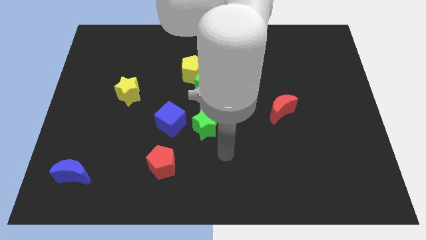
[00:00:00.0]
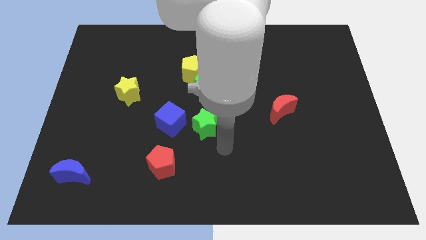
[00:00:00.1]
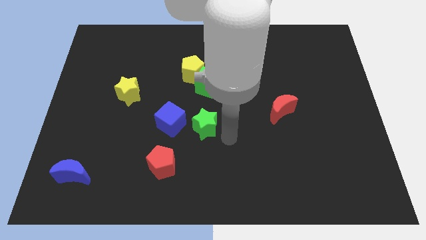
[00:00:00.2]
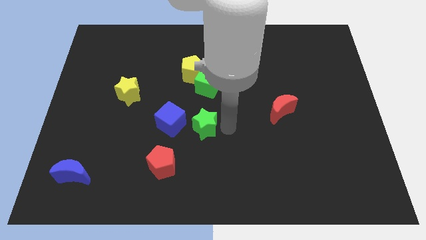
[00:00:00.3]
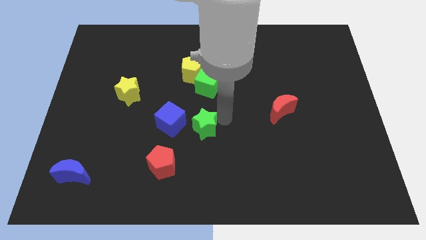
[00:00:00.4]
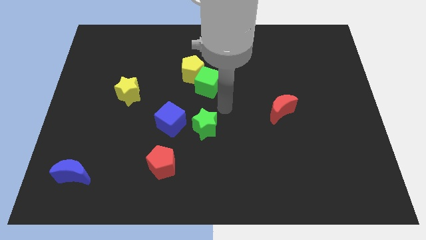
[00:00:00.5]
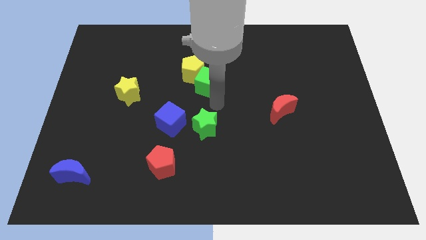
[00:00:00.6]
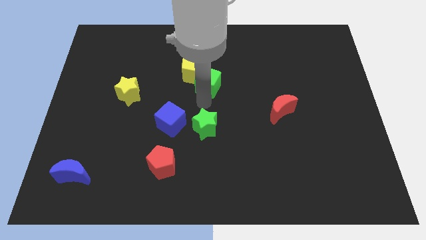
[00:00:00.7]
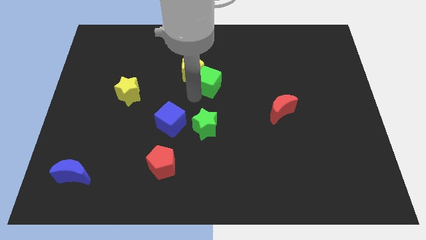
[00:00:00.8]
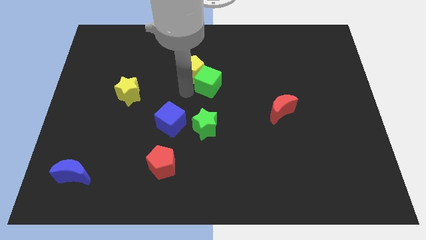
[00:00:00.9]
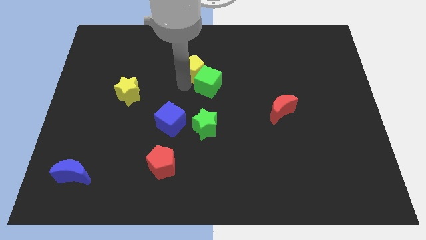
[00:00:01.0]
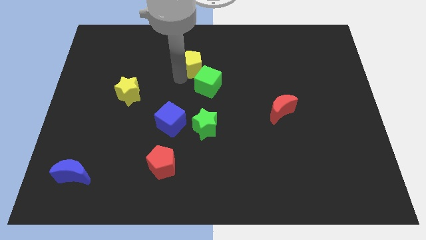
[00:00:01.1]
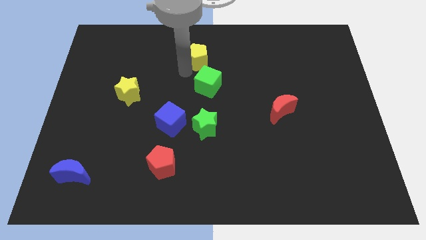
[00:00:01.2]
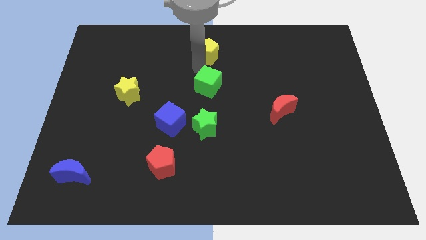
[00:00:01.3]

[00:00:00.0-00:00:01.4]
separate the green cube from the yellow pentagon

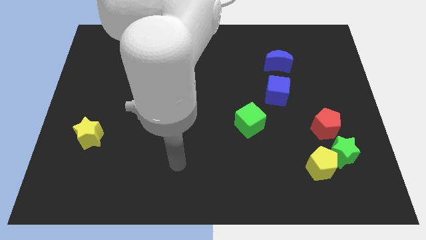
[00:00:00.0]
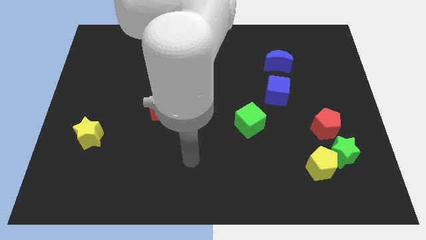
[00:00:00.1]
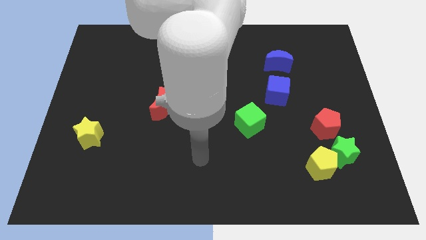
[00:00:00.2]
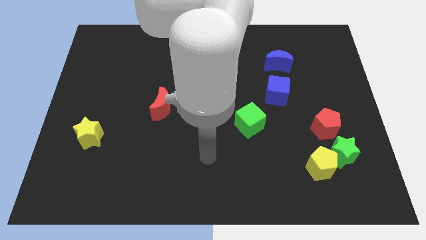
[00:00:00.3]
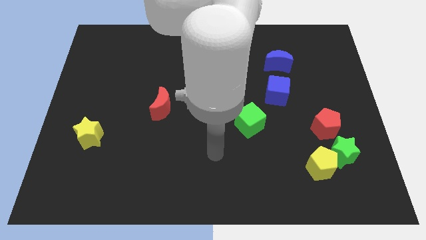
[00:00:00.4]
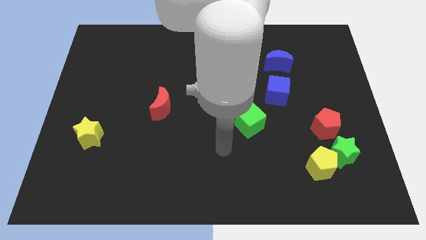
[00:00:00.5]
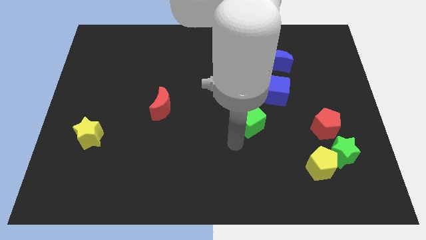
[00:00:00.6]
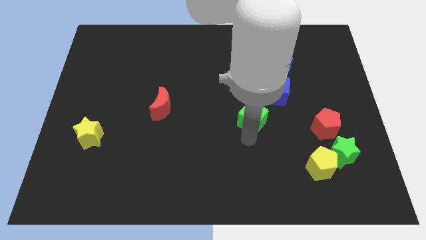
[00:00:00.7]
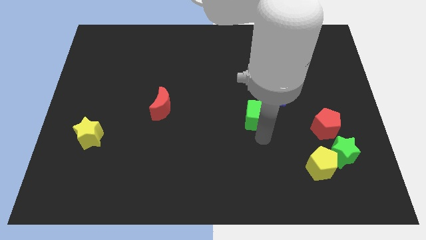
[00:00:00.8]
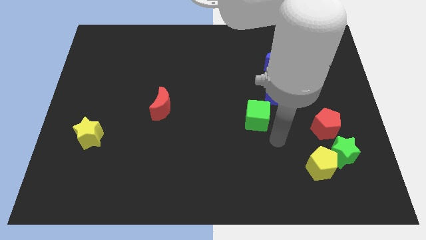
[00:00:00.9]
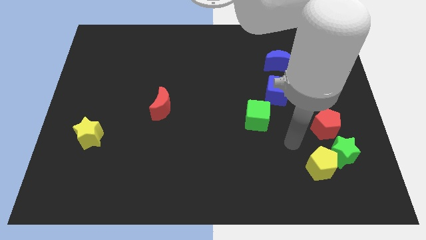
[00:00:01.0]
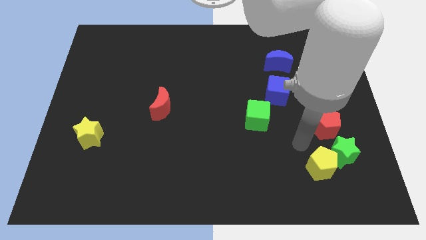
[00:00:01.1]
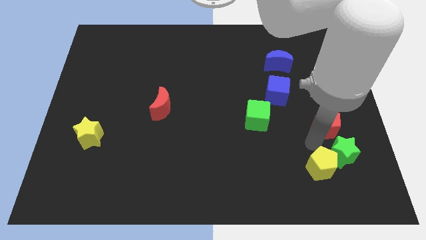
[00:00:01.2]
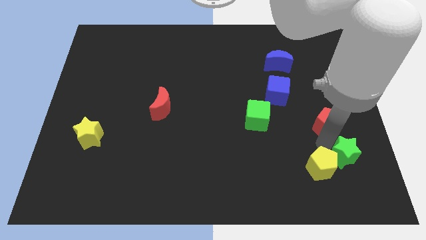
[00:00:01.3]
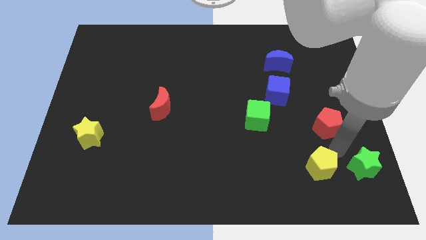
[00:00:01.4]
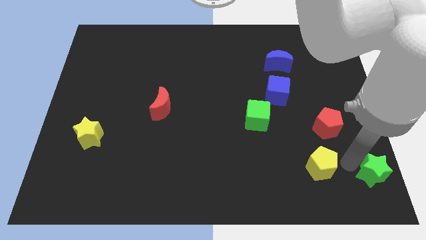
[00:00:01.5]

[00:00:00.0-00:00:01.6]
move the yellow pentagon away from the green star

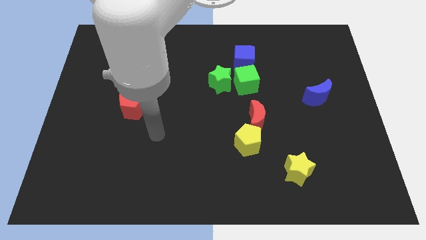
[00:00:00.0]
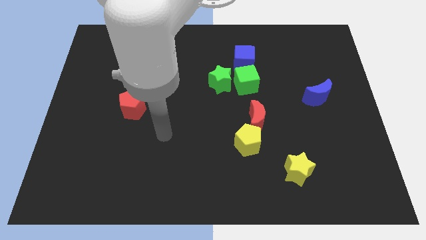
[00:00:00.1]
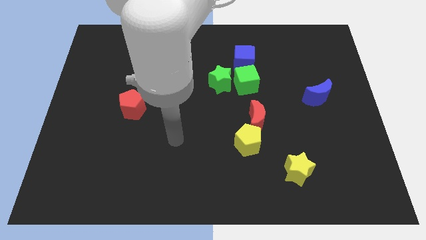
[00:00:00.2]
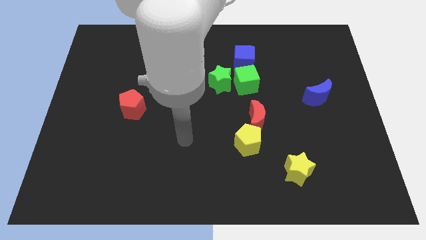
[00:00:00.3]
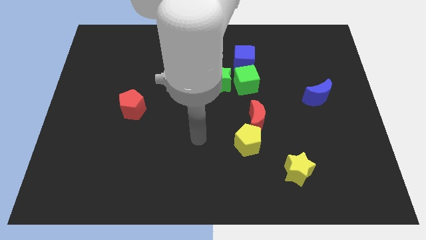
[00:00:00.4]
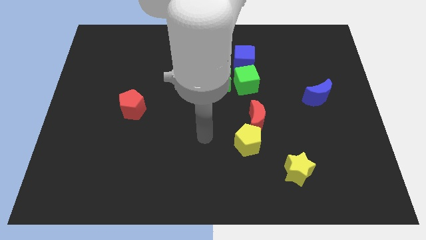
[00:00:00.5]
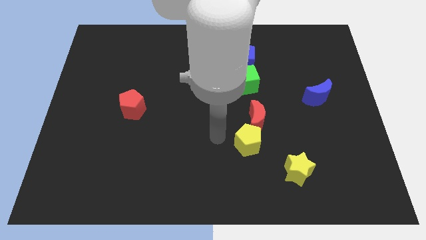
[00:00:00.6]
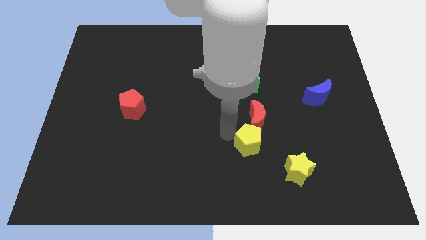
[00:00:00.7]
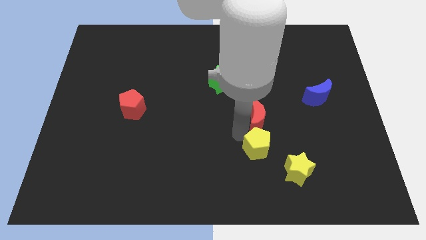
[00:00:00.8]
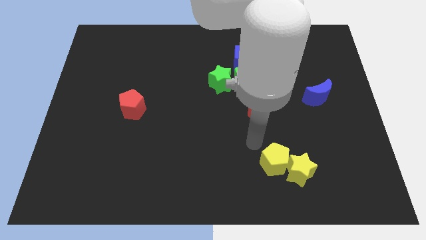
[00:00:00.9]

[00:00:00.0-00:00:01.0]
pull the red moon apart from the yellow pentagon

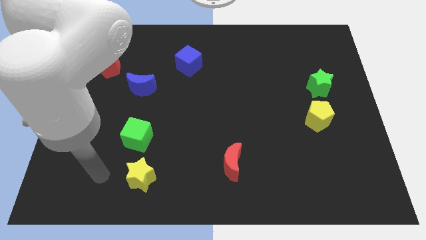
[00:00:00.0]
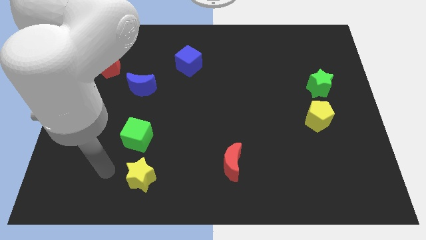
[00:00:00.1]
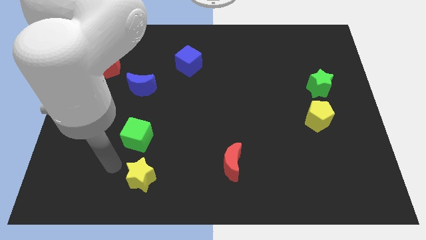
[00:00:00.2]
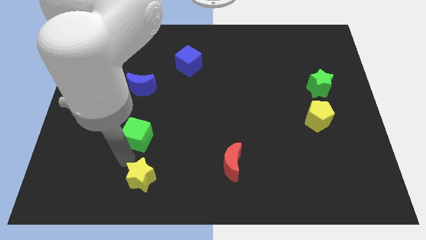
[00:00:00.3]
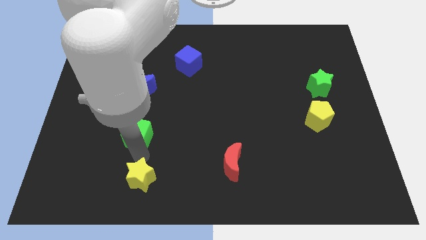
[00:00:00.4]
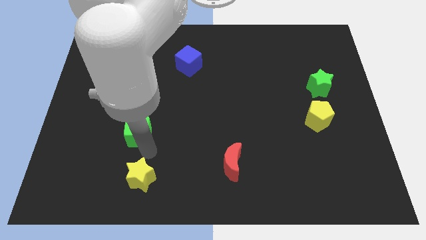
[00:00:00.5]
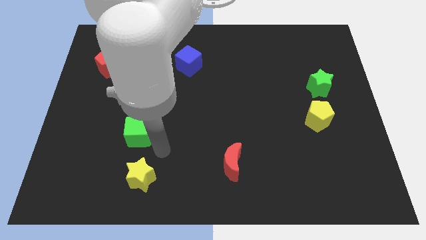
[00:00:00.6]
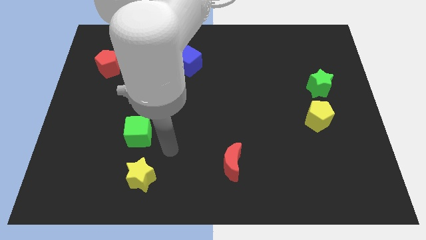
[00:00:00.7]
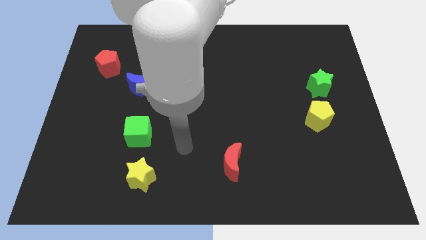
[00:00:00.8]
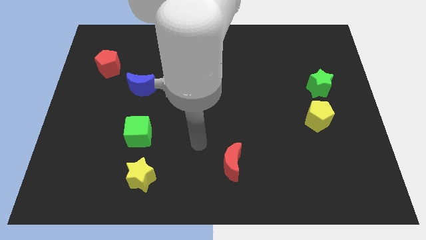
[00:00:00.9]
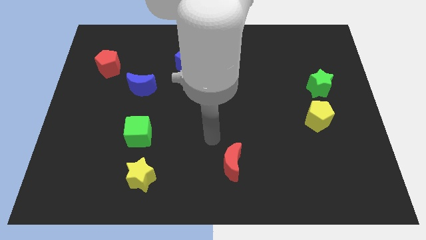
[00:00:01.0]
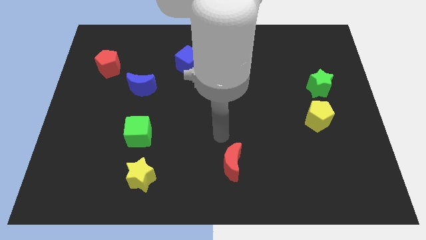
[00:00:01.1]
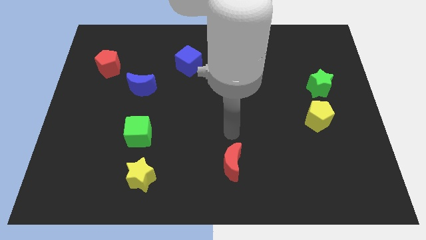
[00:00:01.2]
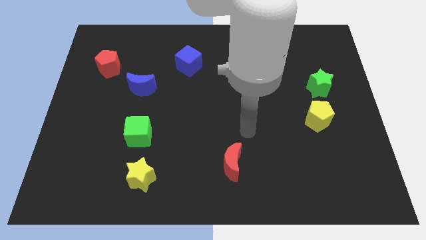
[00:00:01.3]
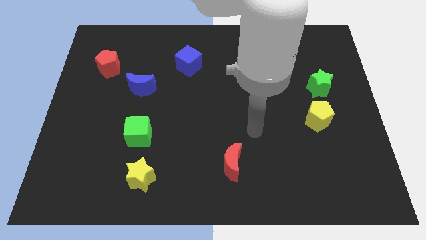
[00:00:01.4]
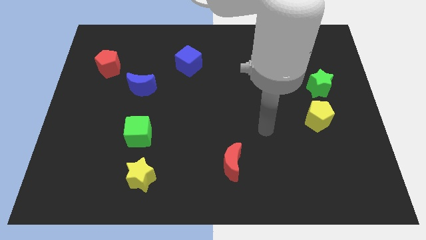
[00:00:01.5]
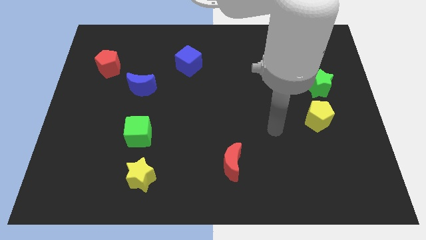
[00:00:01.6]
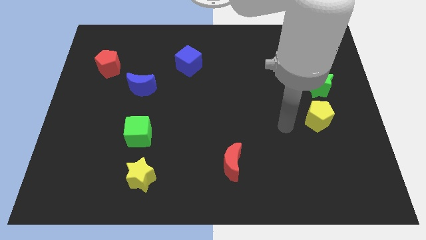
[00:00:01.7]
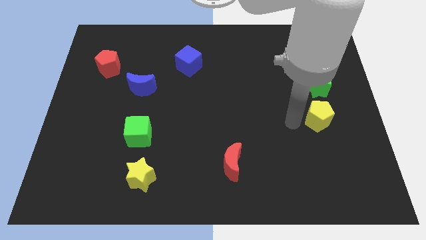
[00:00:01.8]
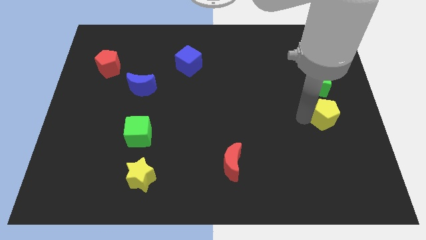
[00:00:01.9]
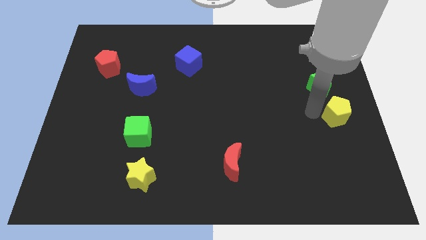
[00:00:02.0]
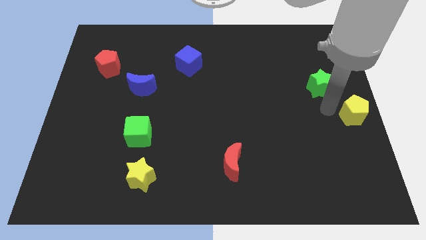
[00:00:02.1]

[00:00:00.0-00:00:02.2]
move the green star away from the yellow pentagon

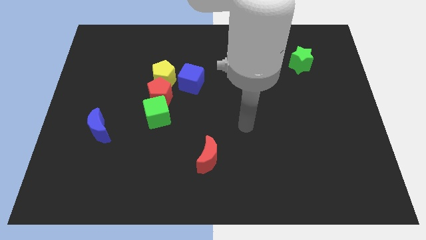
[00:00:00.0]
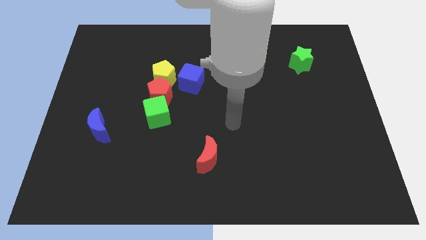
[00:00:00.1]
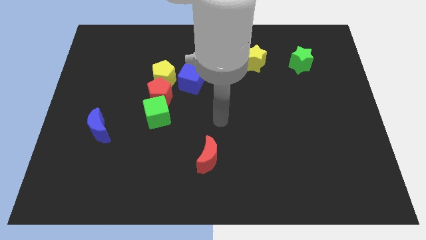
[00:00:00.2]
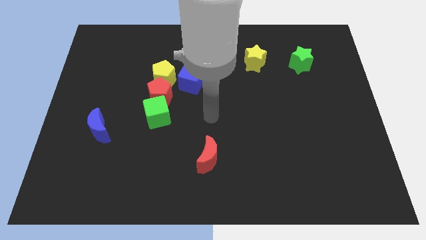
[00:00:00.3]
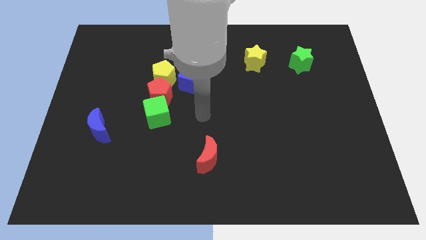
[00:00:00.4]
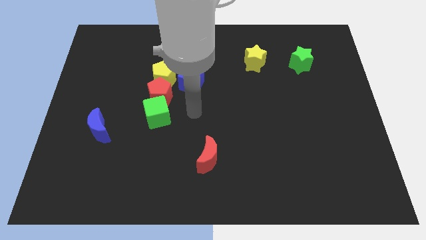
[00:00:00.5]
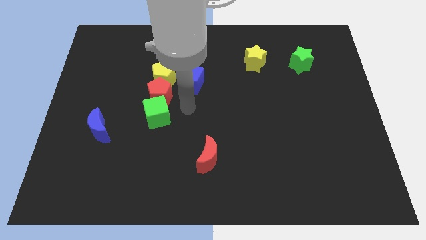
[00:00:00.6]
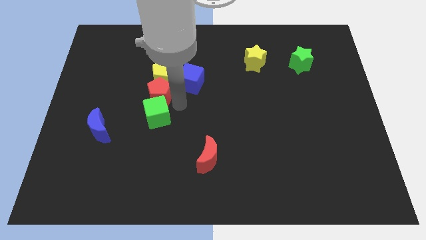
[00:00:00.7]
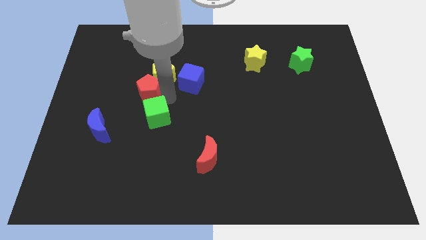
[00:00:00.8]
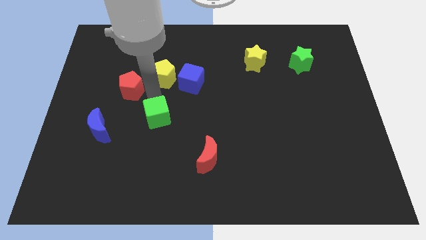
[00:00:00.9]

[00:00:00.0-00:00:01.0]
move the green cube away from the red pentagon

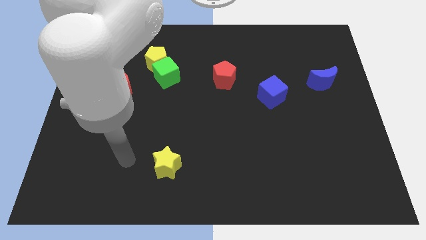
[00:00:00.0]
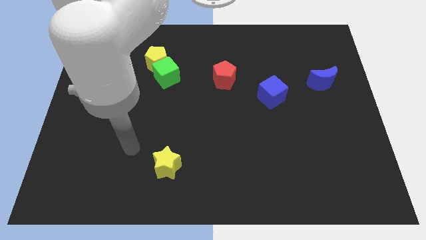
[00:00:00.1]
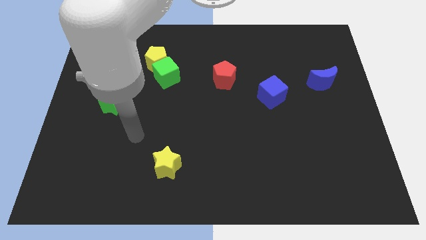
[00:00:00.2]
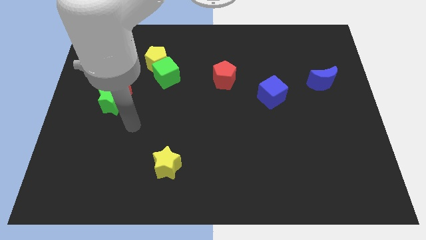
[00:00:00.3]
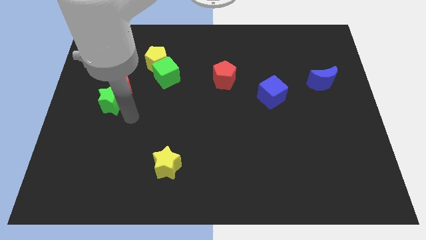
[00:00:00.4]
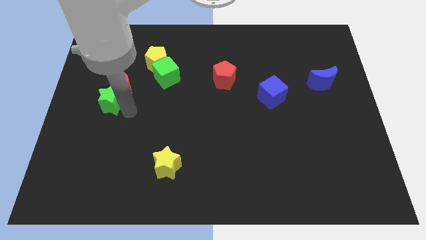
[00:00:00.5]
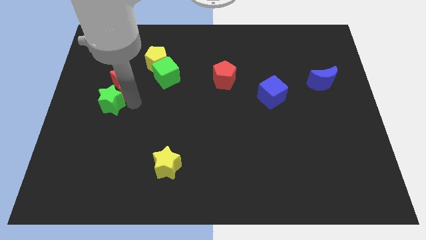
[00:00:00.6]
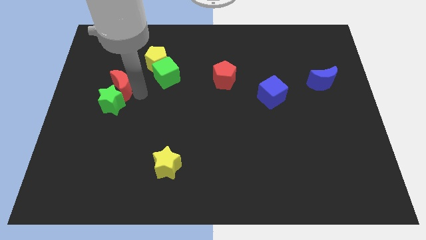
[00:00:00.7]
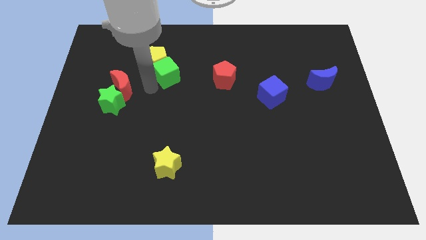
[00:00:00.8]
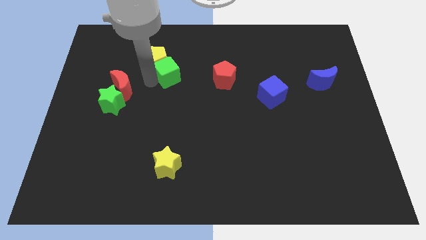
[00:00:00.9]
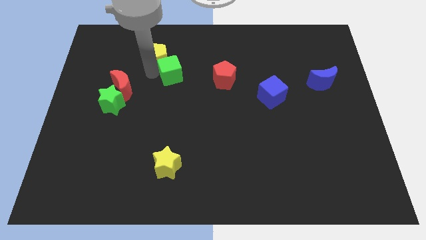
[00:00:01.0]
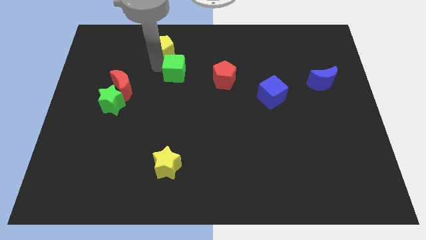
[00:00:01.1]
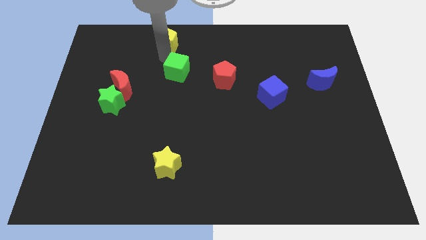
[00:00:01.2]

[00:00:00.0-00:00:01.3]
move the green cube away from the yellow pentagon

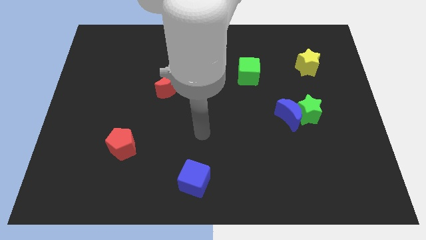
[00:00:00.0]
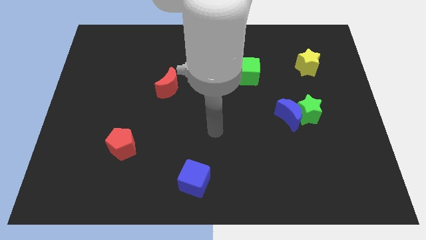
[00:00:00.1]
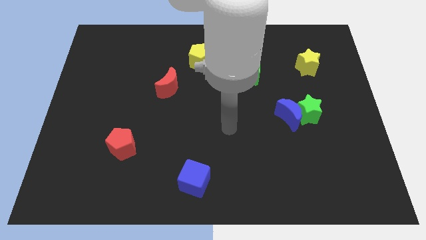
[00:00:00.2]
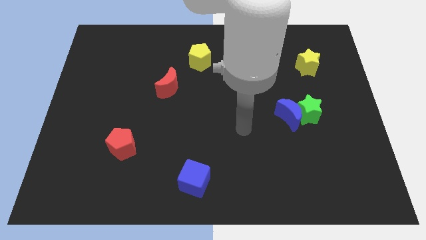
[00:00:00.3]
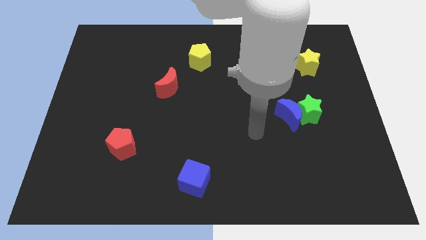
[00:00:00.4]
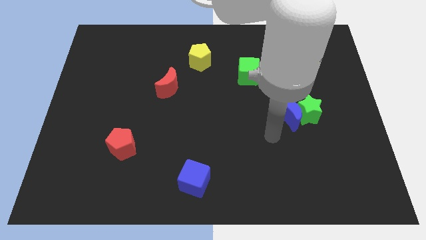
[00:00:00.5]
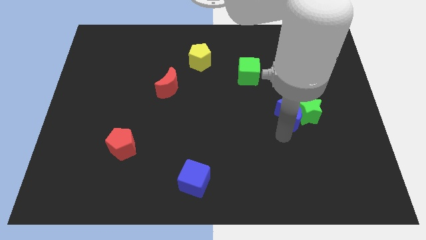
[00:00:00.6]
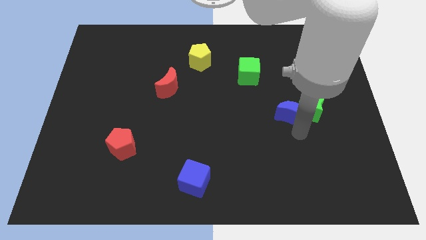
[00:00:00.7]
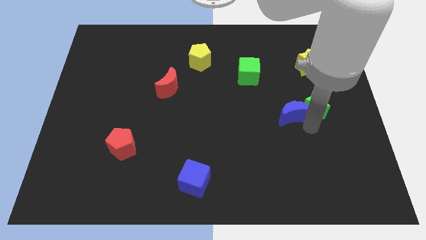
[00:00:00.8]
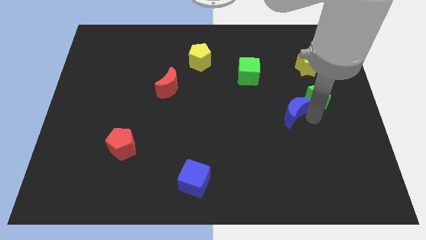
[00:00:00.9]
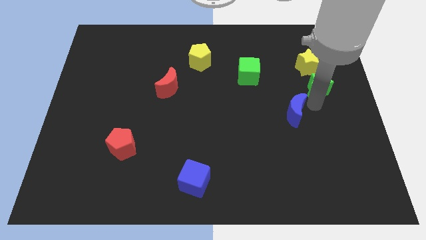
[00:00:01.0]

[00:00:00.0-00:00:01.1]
separate the blue moon from the green star
